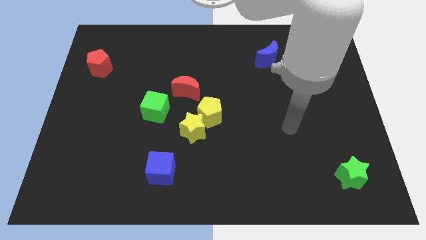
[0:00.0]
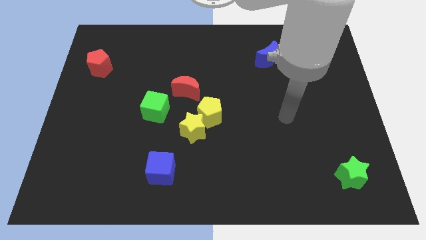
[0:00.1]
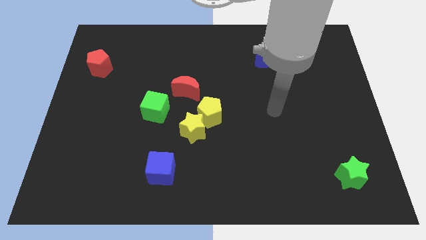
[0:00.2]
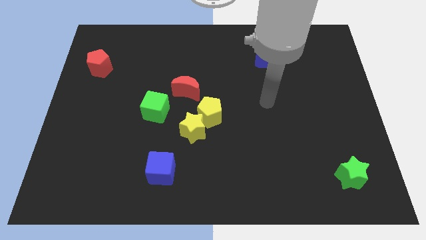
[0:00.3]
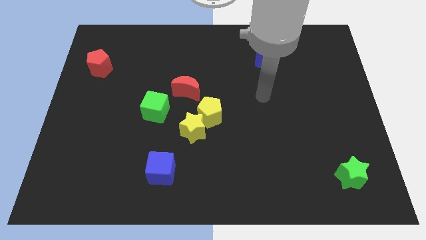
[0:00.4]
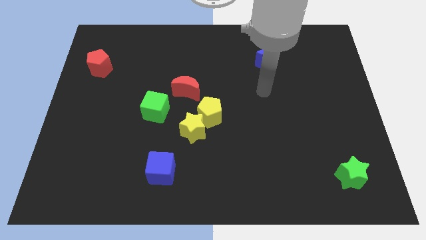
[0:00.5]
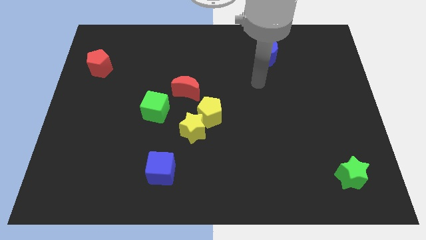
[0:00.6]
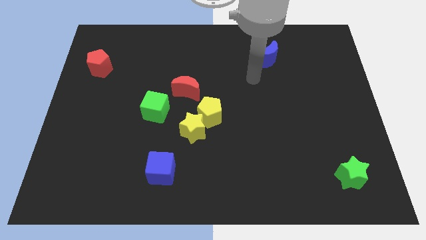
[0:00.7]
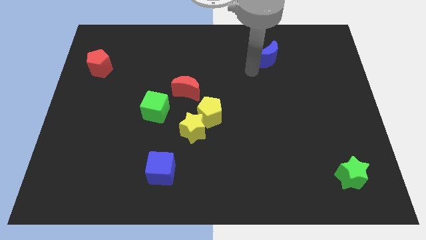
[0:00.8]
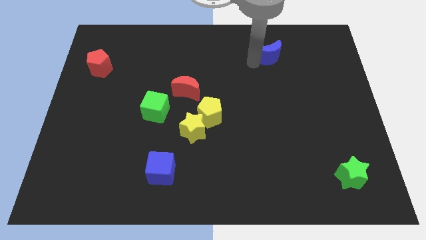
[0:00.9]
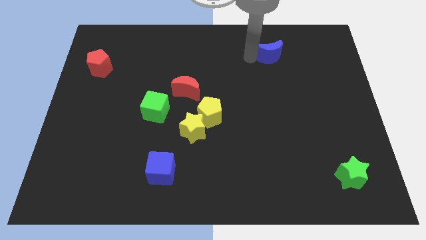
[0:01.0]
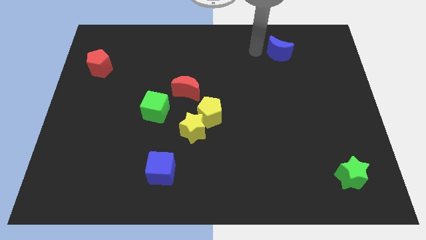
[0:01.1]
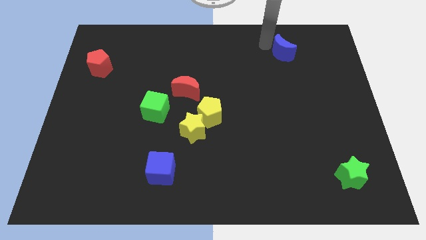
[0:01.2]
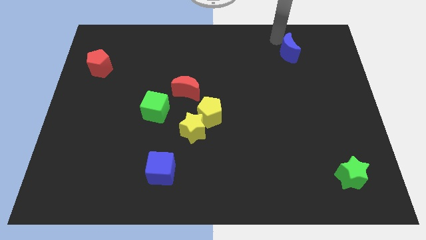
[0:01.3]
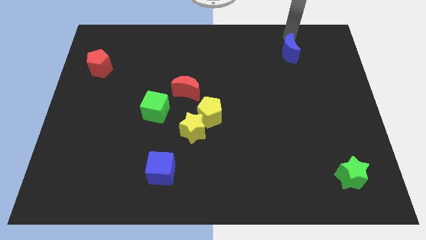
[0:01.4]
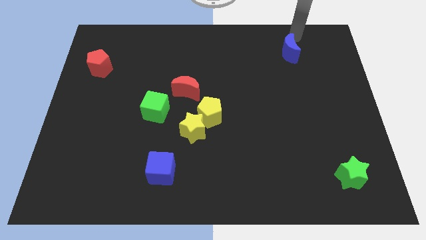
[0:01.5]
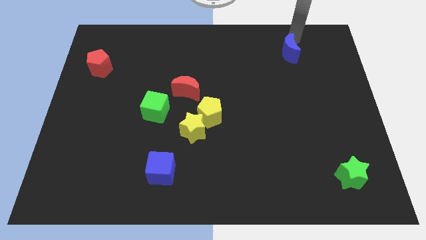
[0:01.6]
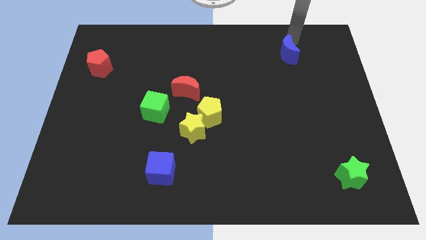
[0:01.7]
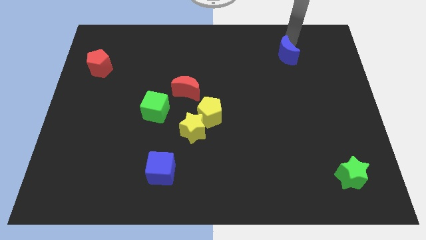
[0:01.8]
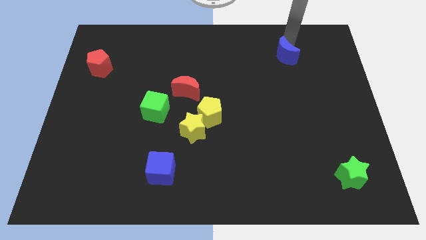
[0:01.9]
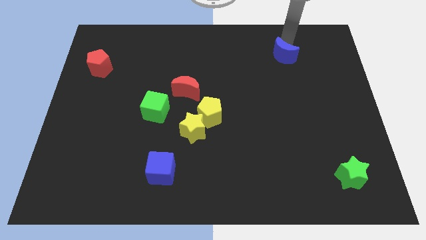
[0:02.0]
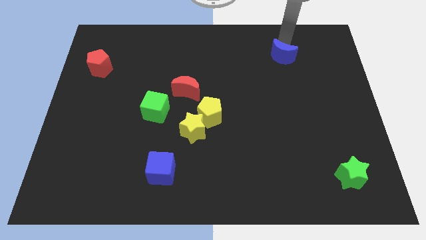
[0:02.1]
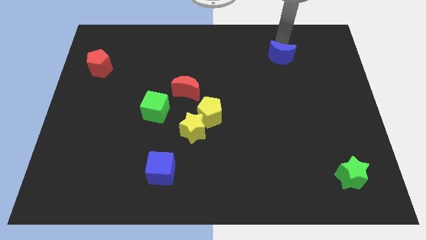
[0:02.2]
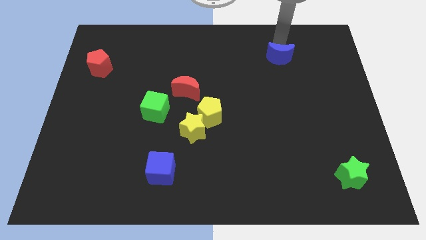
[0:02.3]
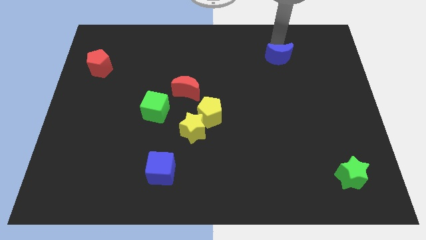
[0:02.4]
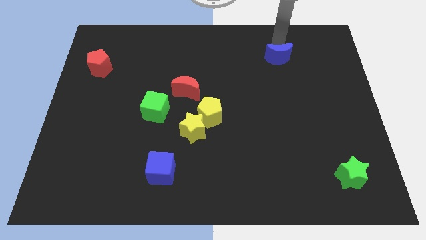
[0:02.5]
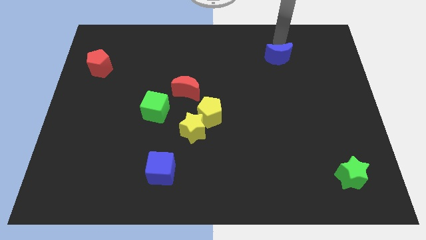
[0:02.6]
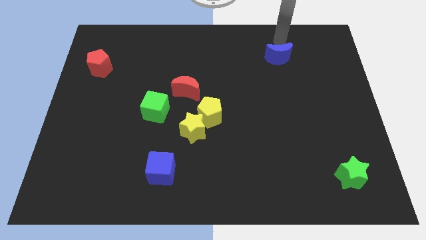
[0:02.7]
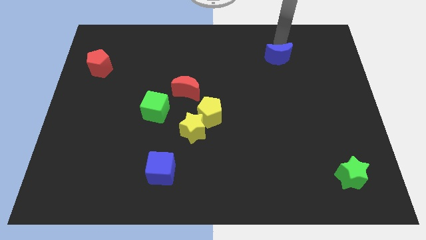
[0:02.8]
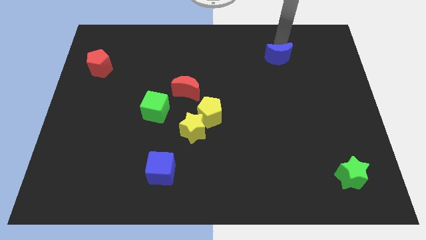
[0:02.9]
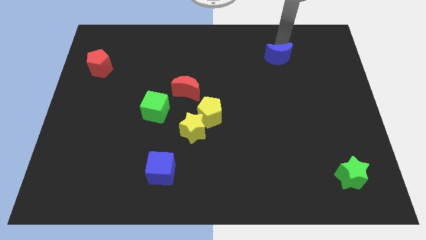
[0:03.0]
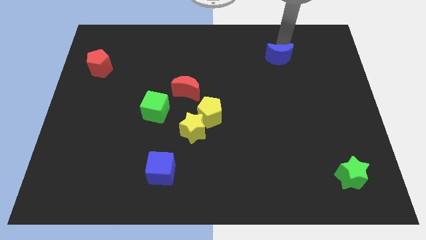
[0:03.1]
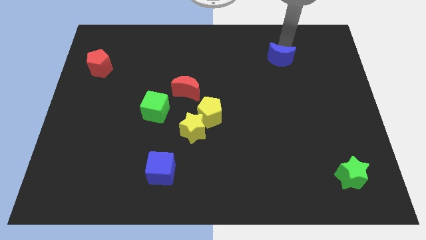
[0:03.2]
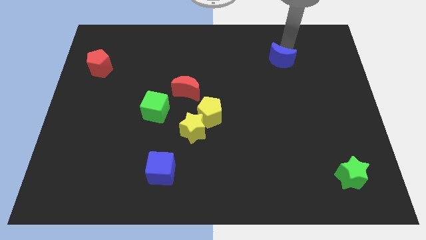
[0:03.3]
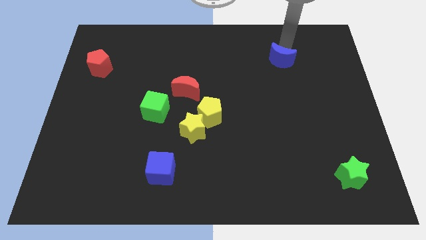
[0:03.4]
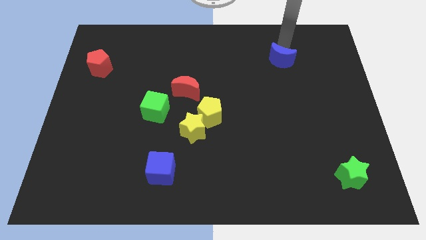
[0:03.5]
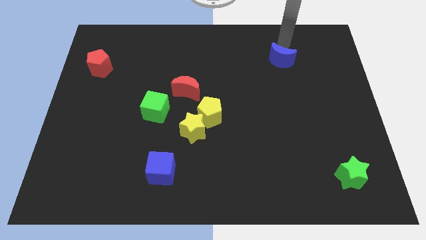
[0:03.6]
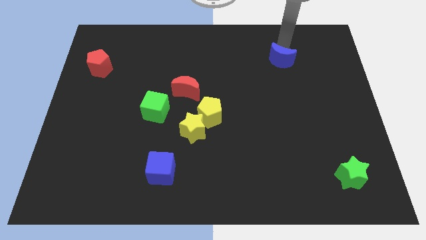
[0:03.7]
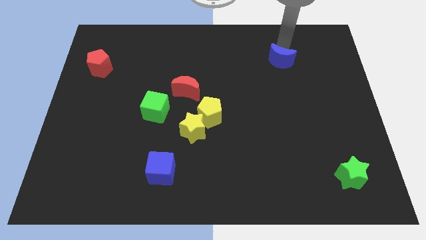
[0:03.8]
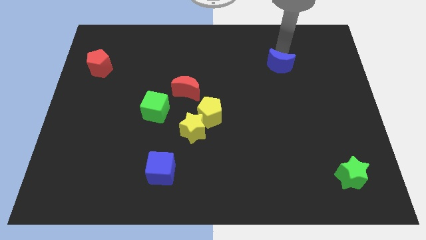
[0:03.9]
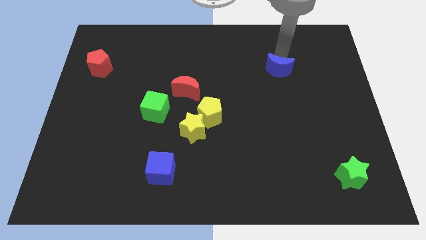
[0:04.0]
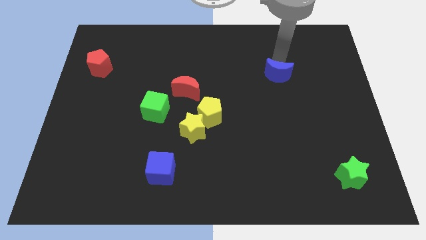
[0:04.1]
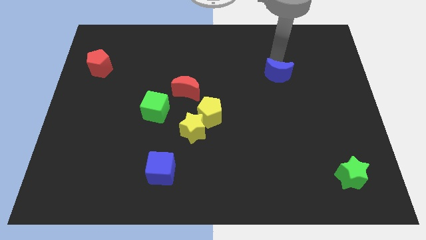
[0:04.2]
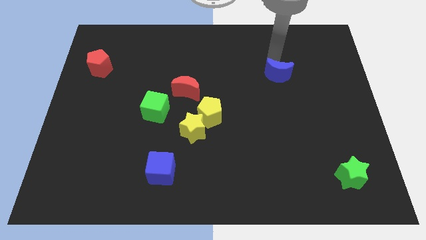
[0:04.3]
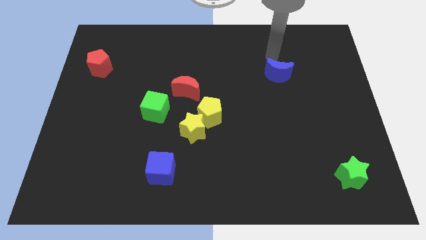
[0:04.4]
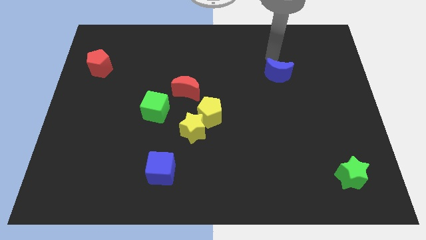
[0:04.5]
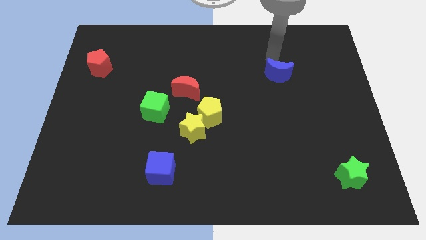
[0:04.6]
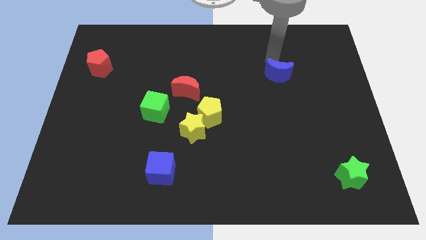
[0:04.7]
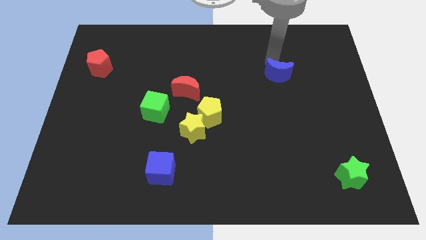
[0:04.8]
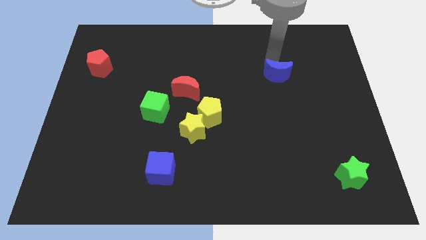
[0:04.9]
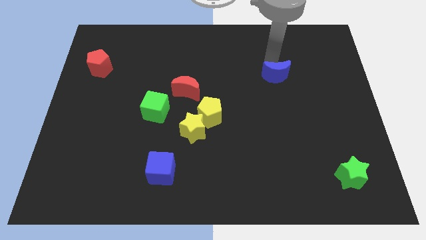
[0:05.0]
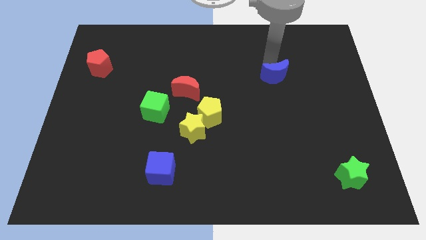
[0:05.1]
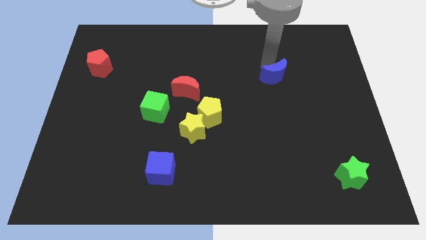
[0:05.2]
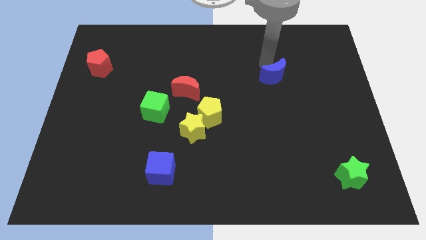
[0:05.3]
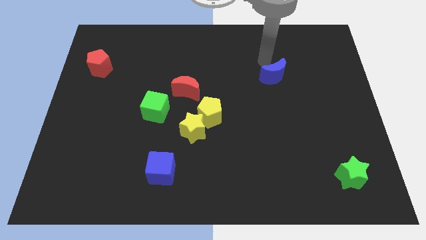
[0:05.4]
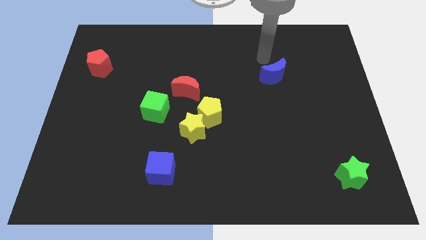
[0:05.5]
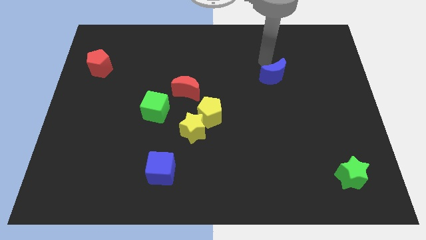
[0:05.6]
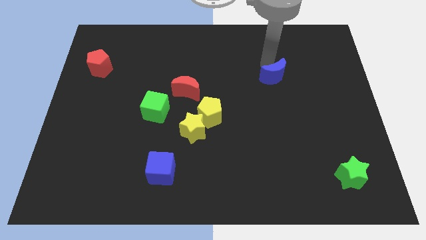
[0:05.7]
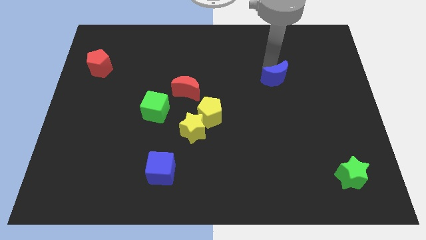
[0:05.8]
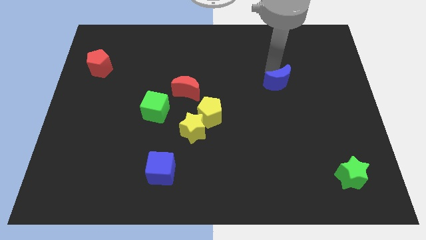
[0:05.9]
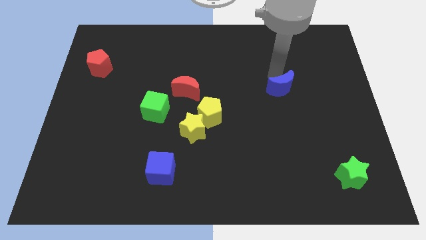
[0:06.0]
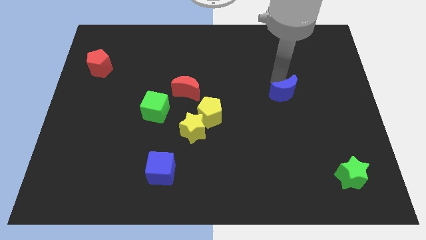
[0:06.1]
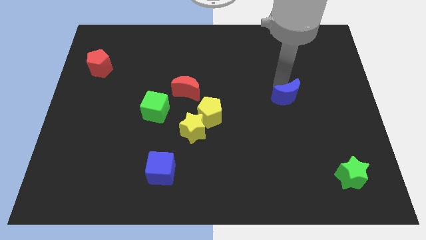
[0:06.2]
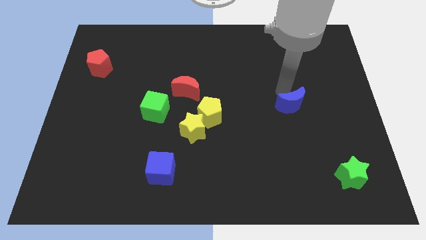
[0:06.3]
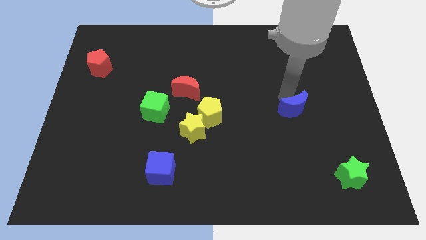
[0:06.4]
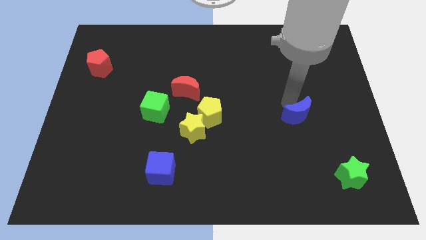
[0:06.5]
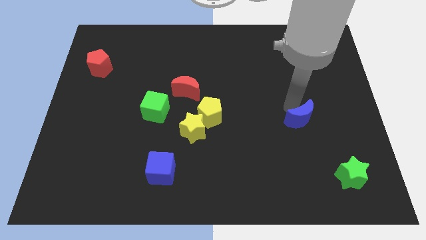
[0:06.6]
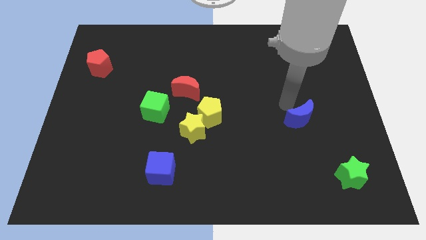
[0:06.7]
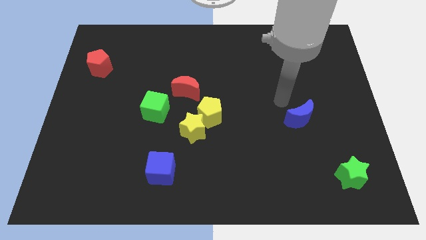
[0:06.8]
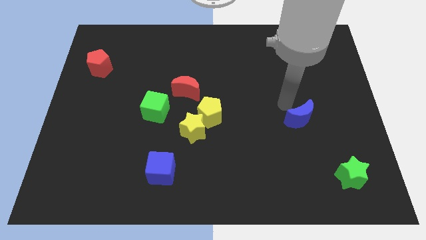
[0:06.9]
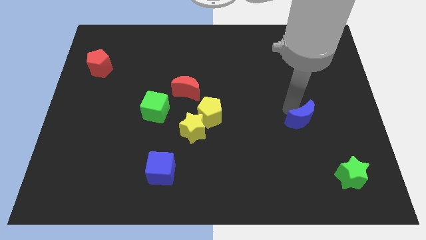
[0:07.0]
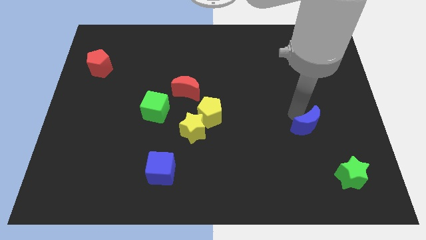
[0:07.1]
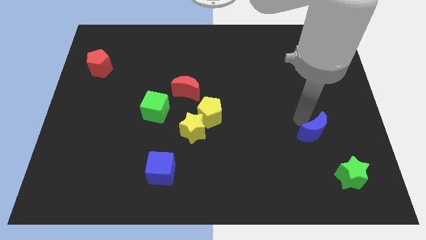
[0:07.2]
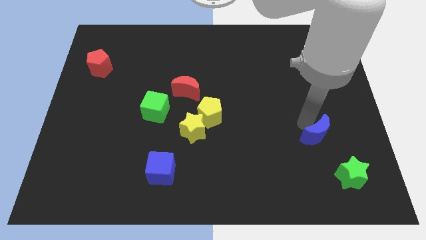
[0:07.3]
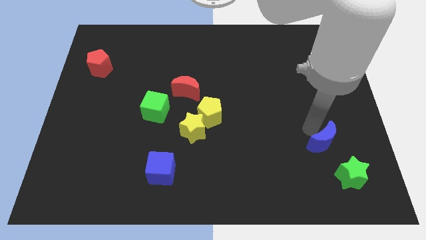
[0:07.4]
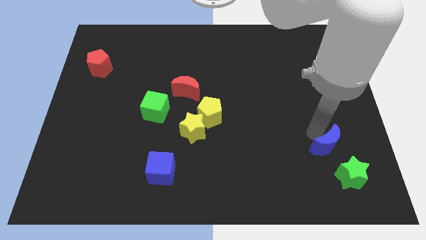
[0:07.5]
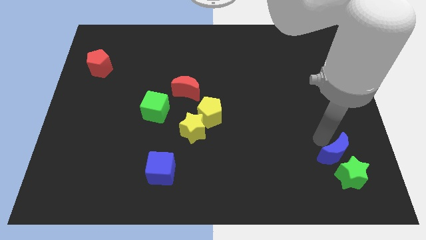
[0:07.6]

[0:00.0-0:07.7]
move the blue moon next to the green star
